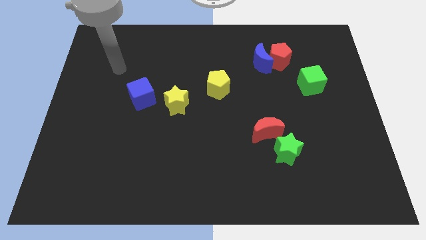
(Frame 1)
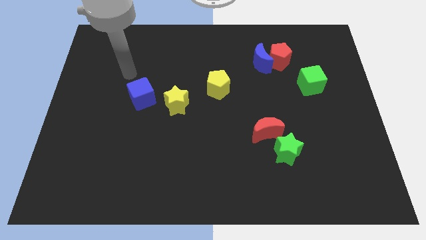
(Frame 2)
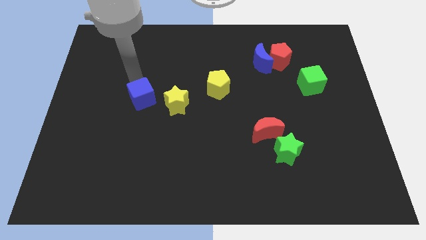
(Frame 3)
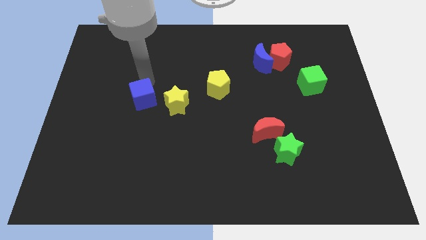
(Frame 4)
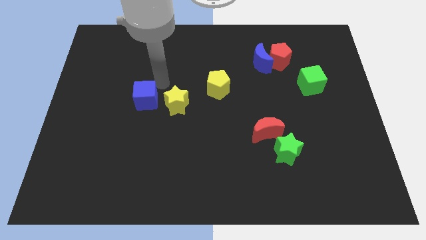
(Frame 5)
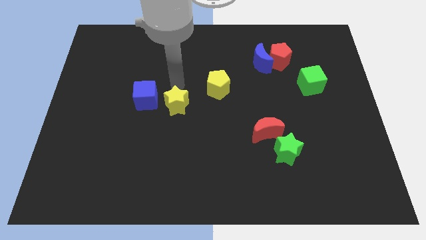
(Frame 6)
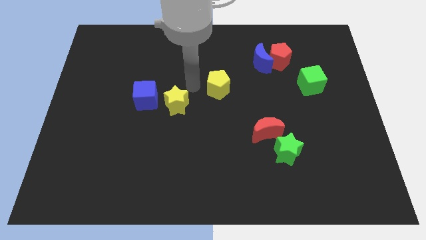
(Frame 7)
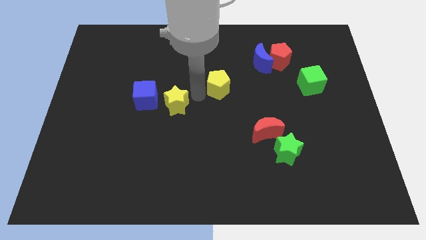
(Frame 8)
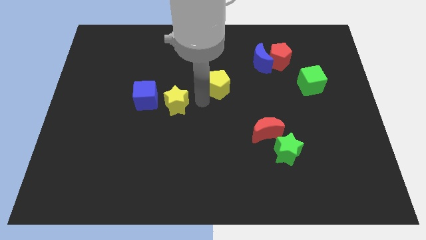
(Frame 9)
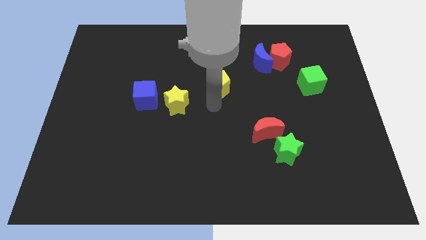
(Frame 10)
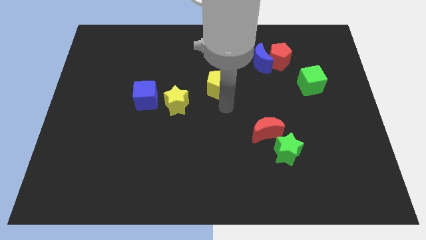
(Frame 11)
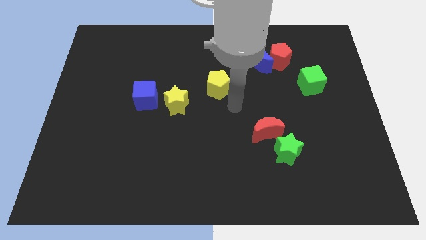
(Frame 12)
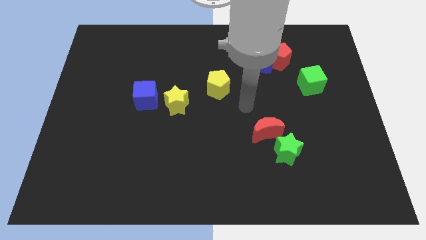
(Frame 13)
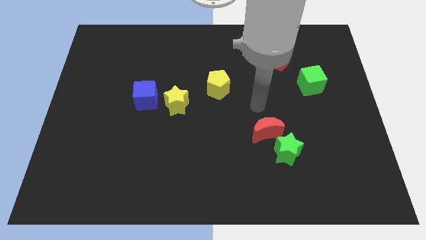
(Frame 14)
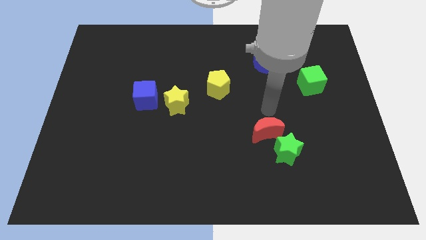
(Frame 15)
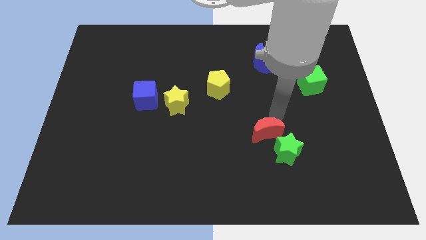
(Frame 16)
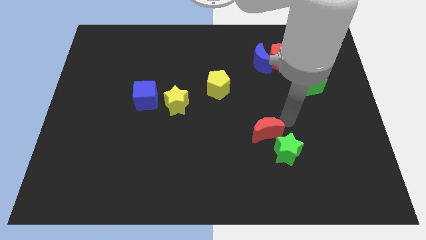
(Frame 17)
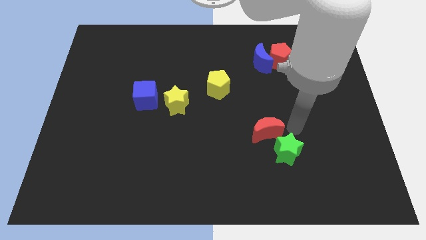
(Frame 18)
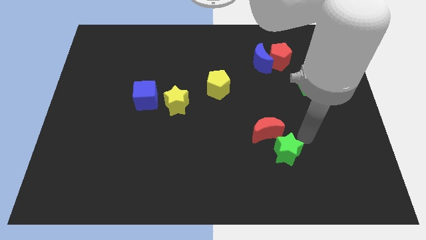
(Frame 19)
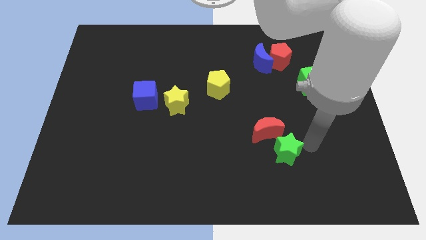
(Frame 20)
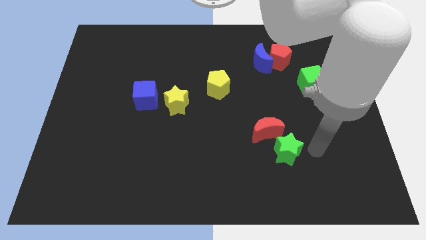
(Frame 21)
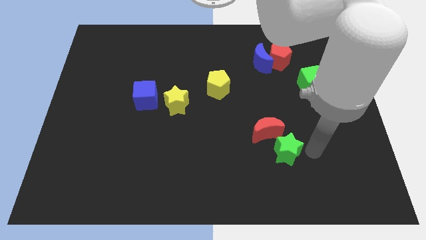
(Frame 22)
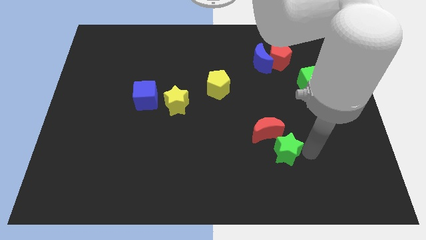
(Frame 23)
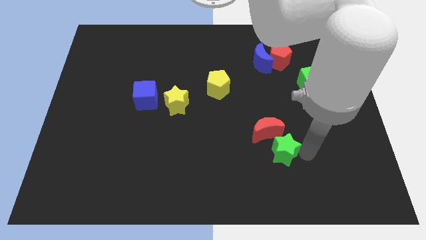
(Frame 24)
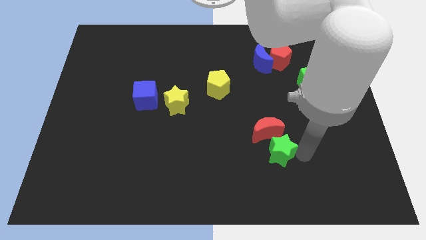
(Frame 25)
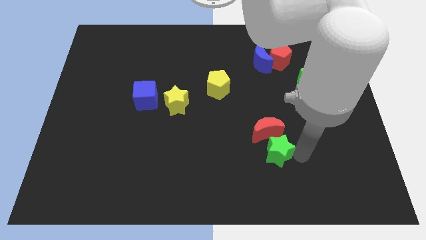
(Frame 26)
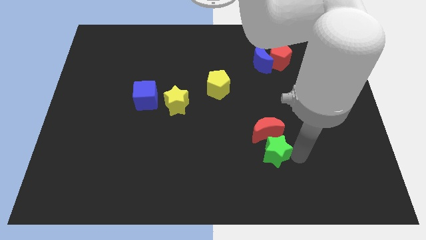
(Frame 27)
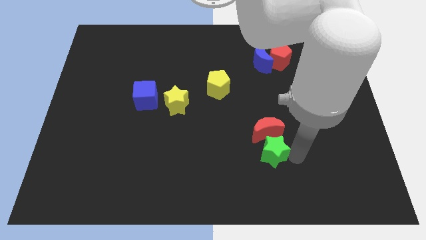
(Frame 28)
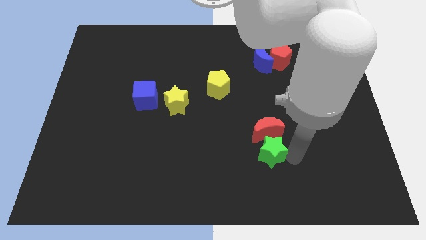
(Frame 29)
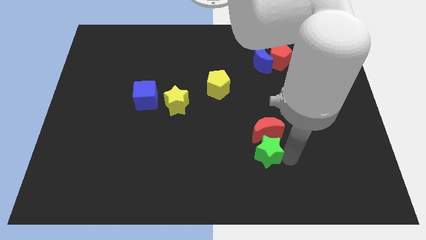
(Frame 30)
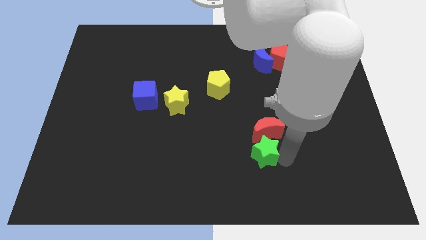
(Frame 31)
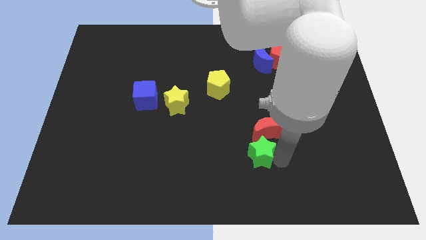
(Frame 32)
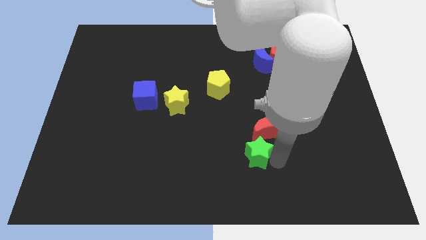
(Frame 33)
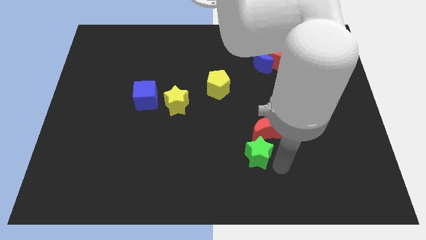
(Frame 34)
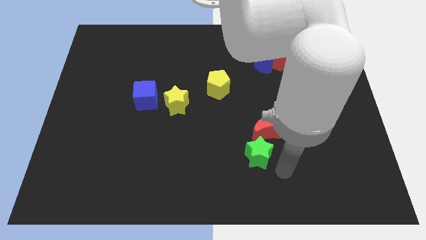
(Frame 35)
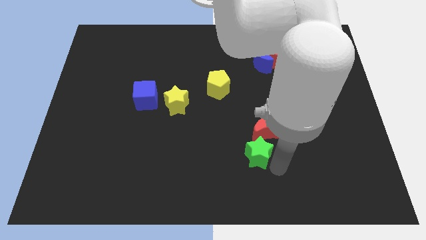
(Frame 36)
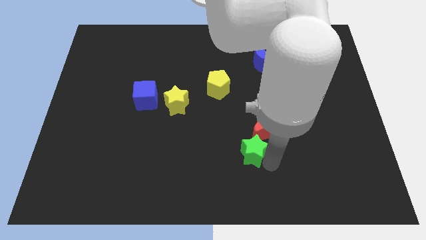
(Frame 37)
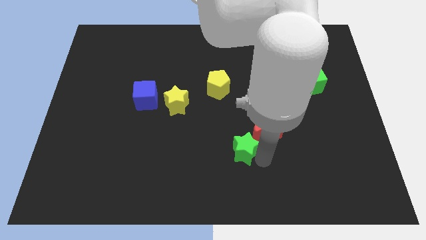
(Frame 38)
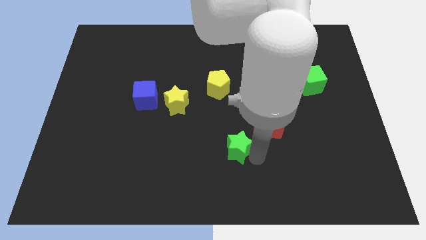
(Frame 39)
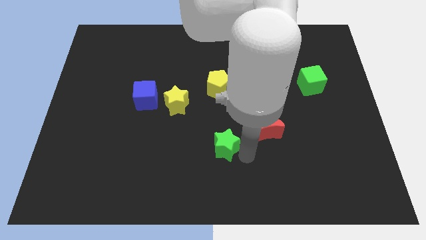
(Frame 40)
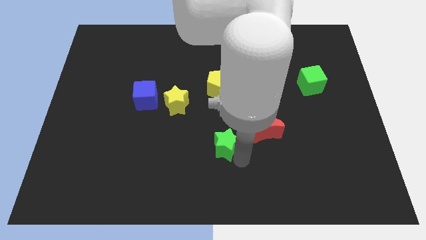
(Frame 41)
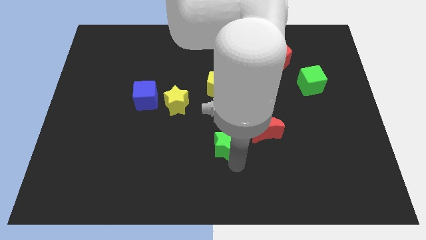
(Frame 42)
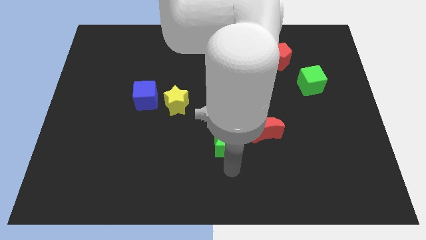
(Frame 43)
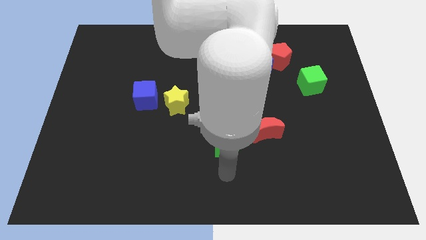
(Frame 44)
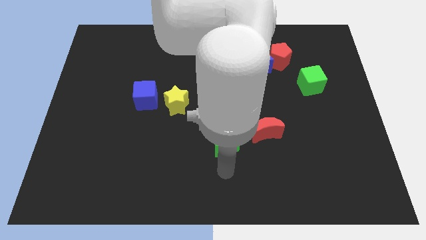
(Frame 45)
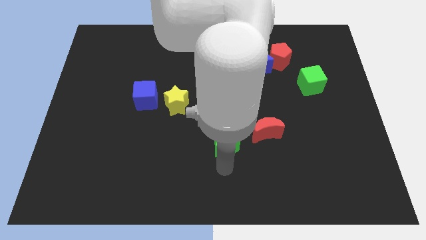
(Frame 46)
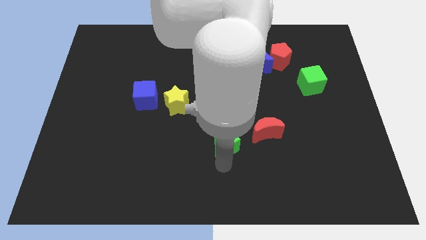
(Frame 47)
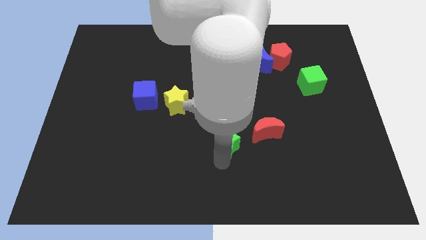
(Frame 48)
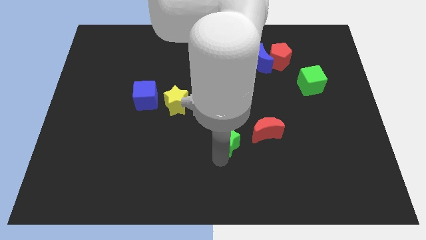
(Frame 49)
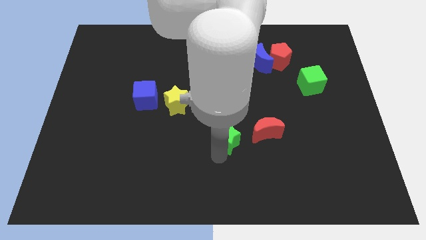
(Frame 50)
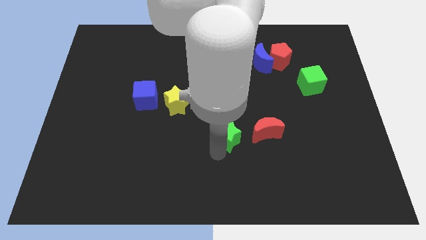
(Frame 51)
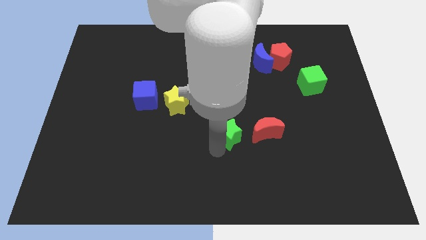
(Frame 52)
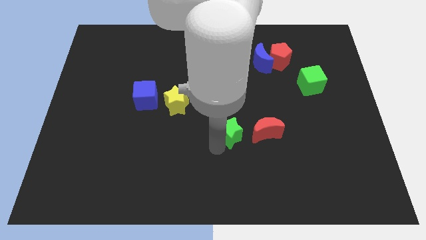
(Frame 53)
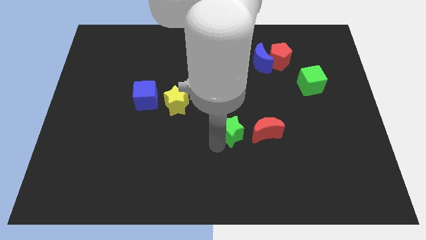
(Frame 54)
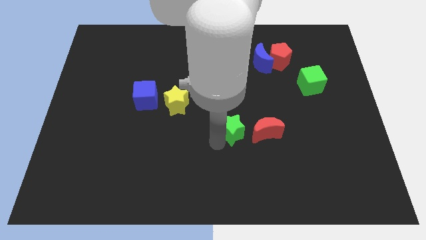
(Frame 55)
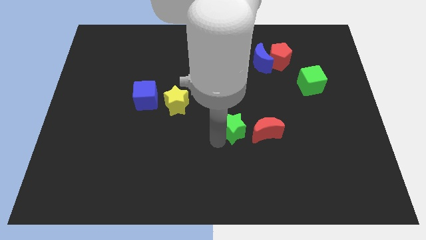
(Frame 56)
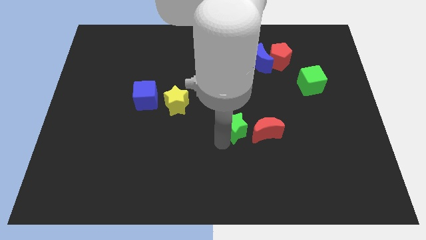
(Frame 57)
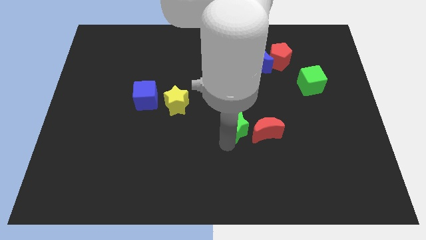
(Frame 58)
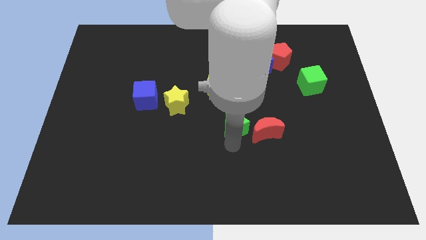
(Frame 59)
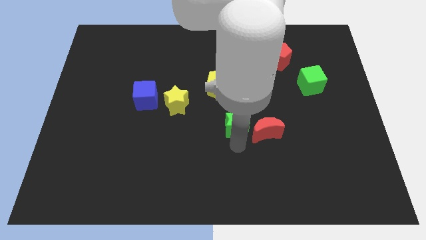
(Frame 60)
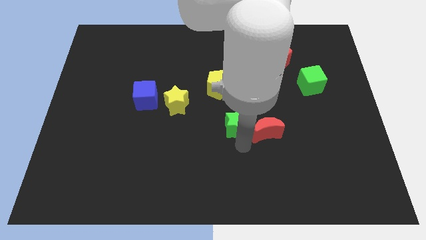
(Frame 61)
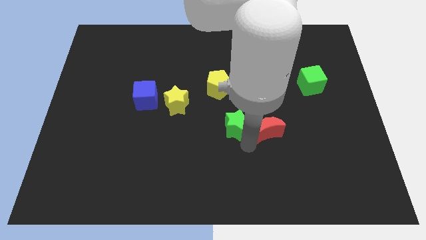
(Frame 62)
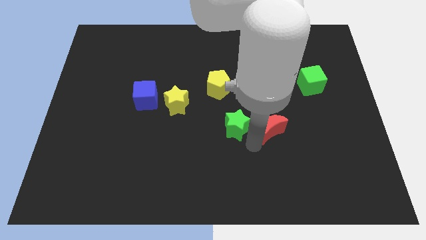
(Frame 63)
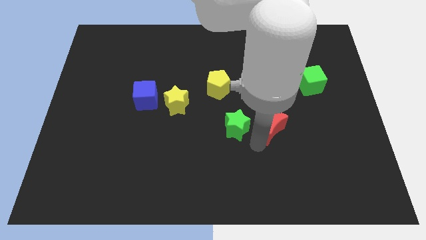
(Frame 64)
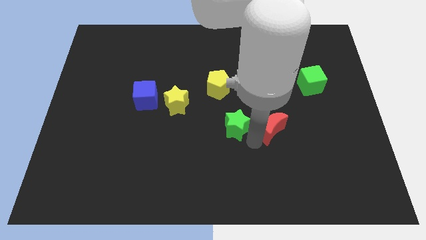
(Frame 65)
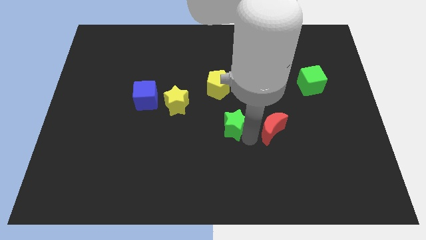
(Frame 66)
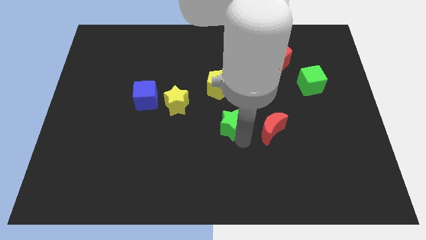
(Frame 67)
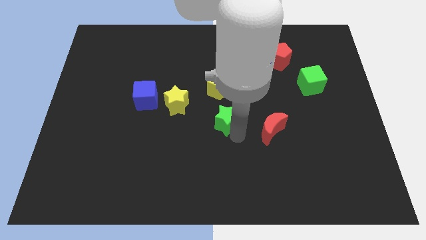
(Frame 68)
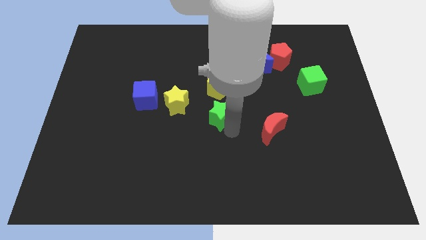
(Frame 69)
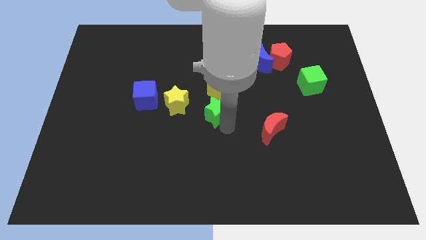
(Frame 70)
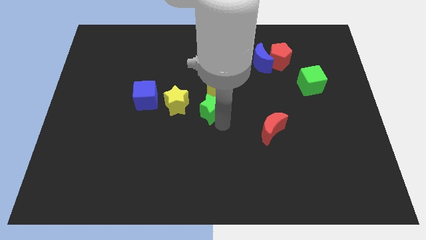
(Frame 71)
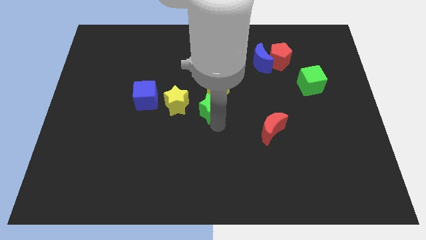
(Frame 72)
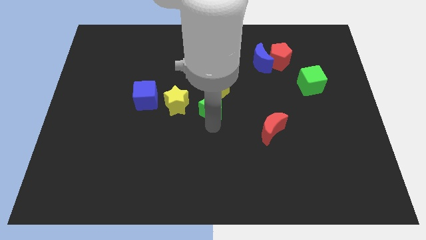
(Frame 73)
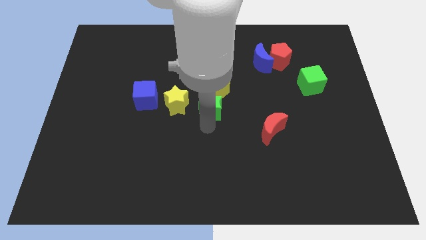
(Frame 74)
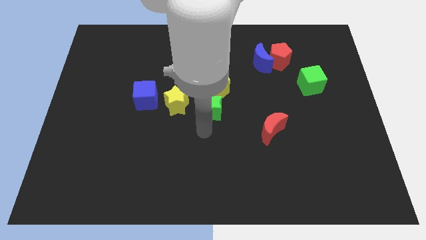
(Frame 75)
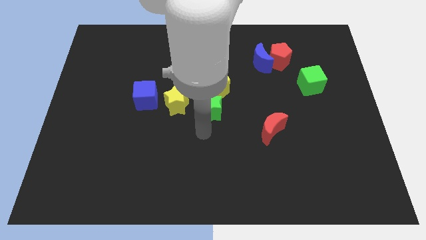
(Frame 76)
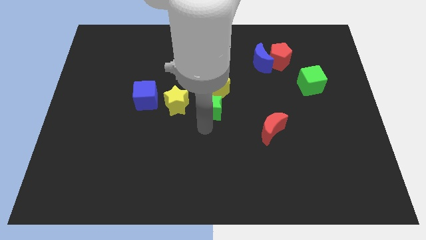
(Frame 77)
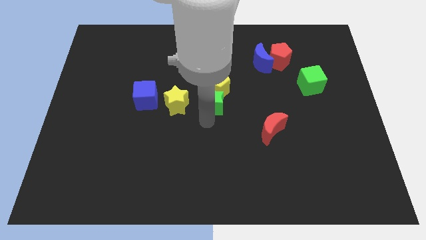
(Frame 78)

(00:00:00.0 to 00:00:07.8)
slide the green star towards the yellow pentagon
